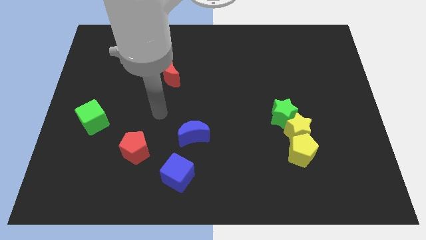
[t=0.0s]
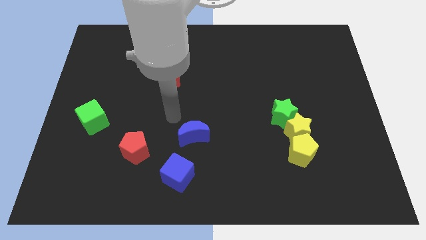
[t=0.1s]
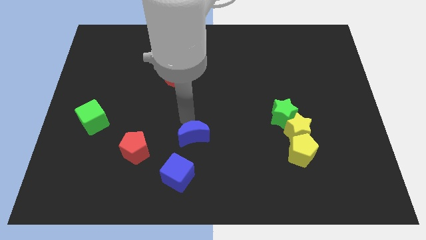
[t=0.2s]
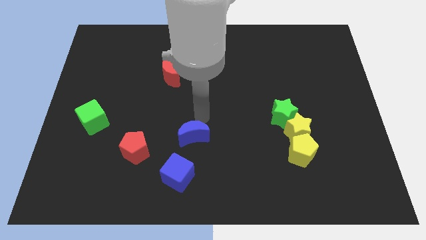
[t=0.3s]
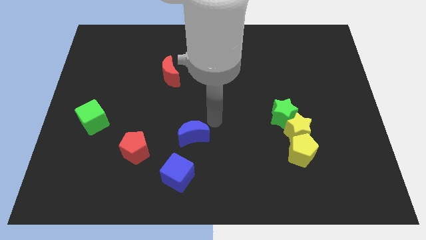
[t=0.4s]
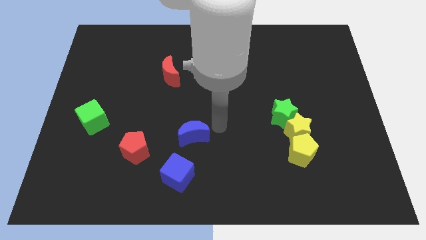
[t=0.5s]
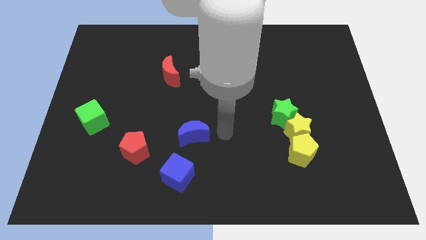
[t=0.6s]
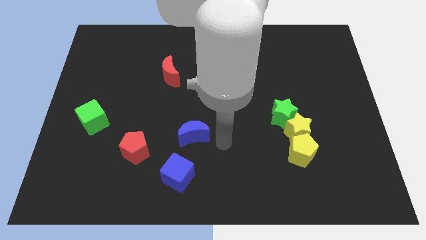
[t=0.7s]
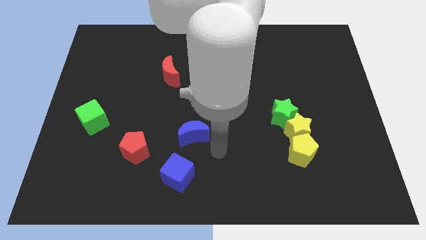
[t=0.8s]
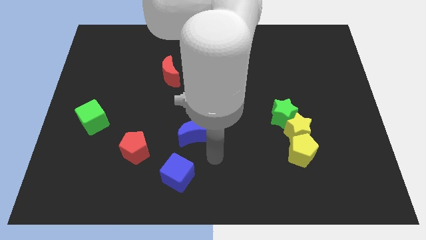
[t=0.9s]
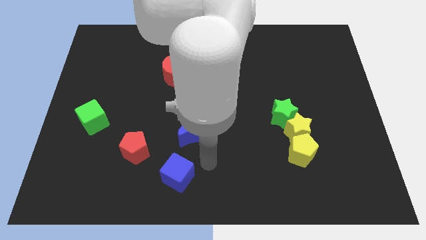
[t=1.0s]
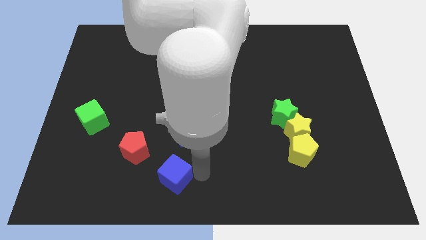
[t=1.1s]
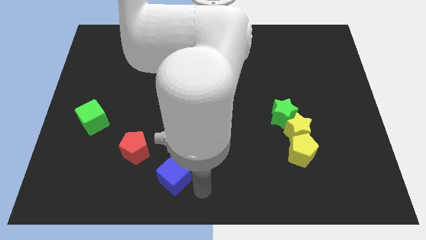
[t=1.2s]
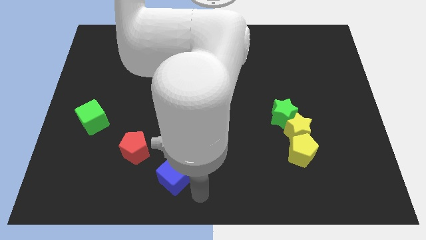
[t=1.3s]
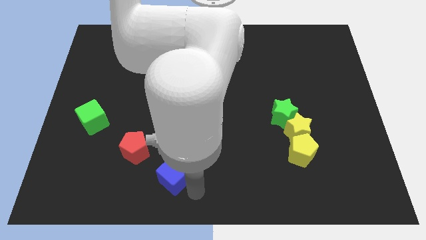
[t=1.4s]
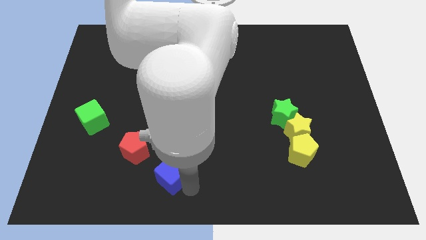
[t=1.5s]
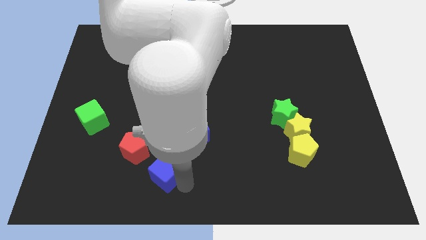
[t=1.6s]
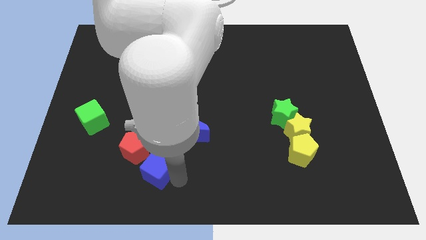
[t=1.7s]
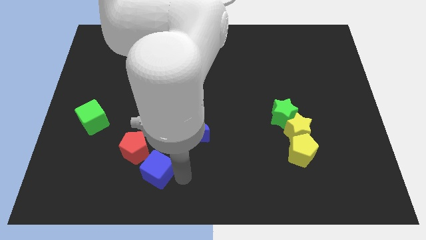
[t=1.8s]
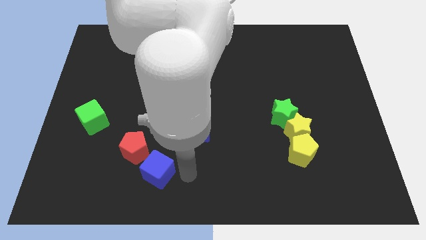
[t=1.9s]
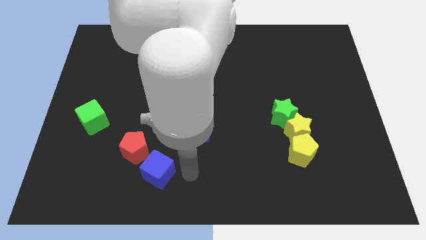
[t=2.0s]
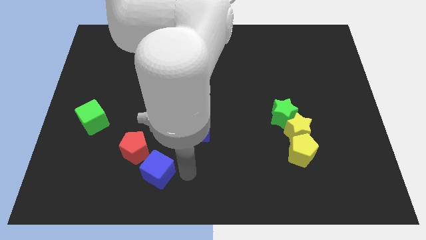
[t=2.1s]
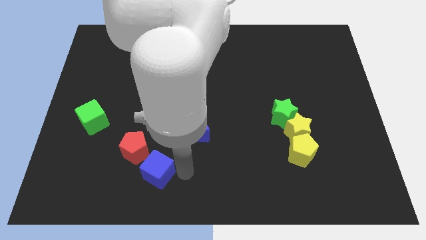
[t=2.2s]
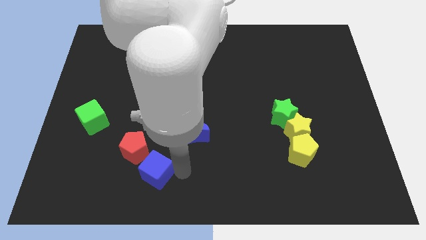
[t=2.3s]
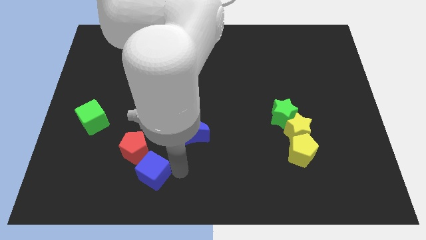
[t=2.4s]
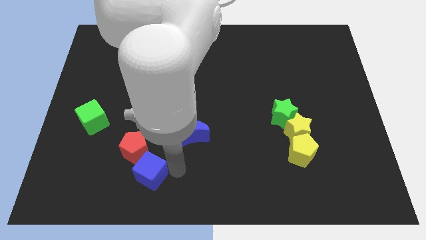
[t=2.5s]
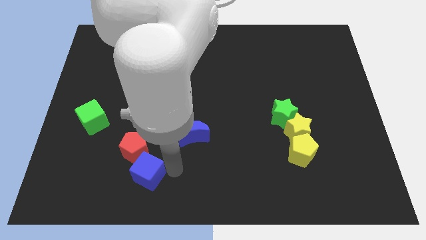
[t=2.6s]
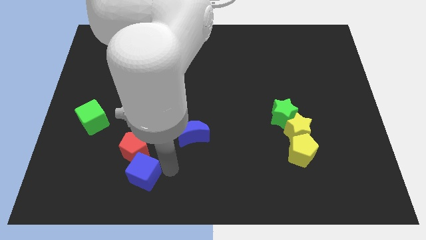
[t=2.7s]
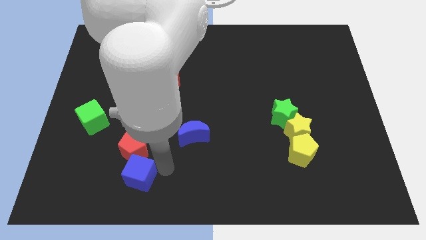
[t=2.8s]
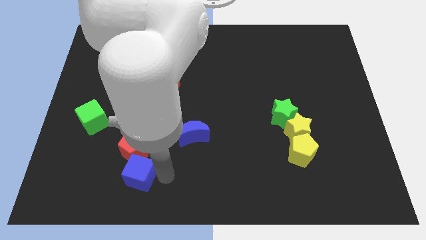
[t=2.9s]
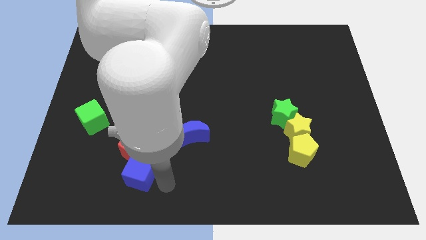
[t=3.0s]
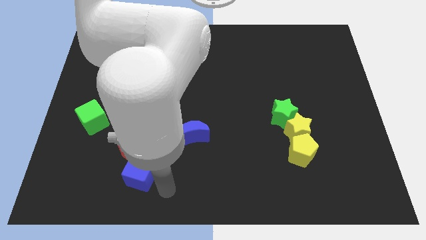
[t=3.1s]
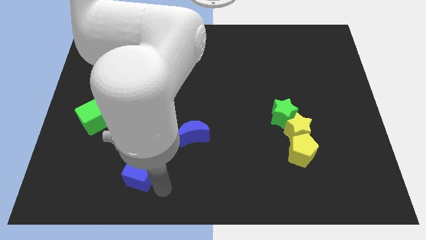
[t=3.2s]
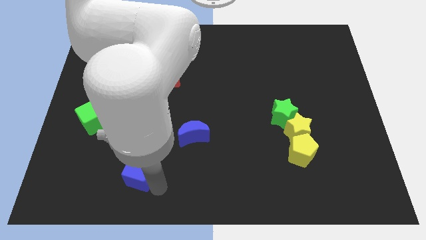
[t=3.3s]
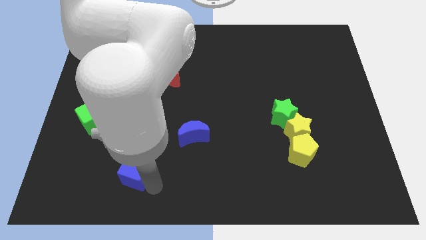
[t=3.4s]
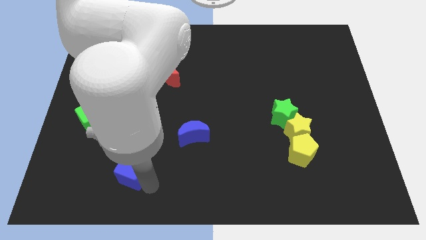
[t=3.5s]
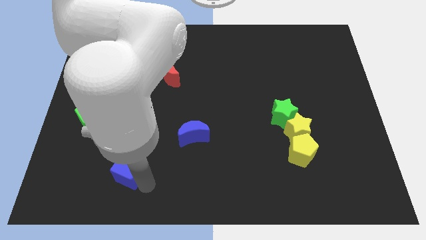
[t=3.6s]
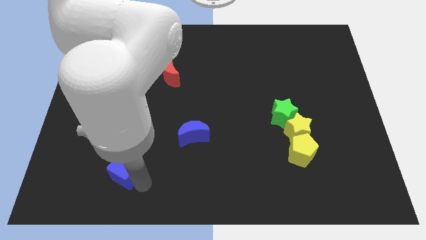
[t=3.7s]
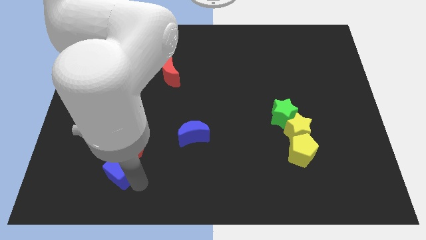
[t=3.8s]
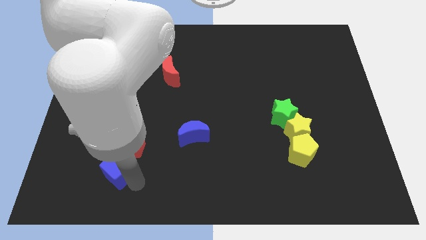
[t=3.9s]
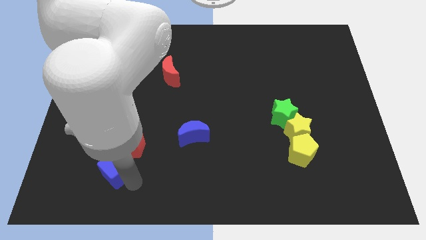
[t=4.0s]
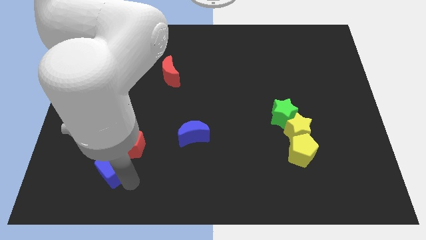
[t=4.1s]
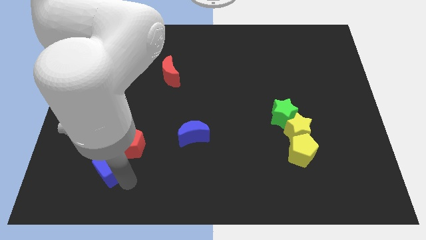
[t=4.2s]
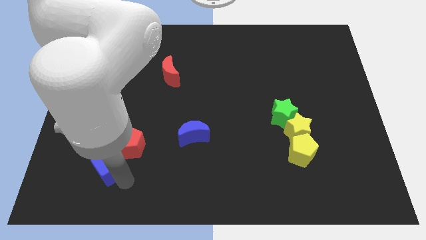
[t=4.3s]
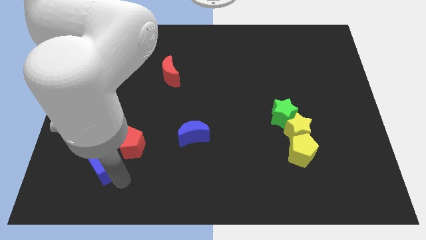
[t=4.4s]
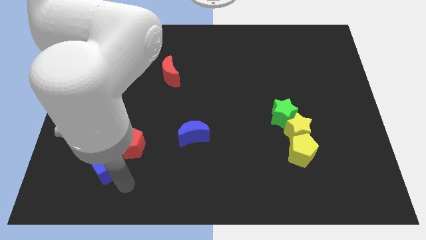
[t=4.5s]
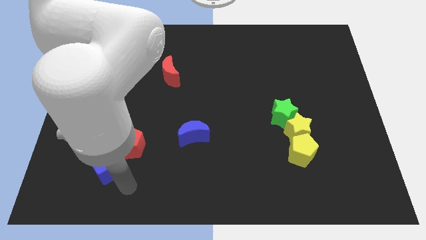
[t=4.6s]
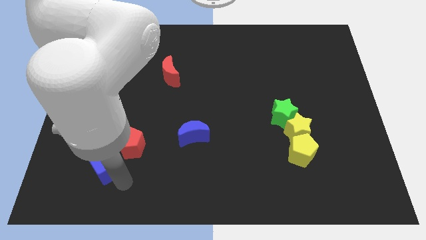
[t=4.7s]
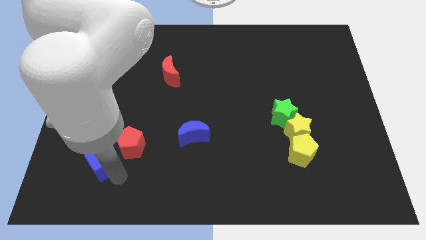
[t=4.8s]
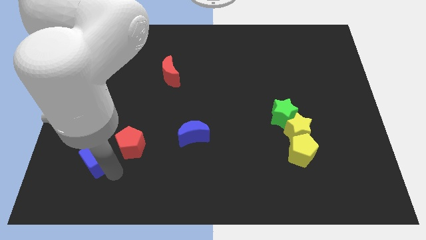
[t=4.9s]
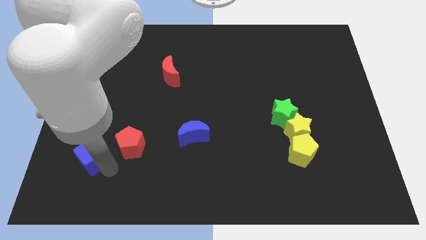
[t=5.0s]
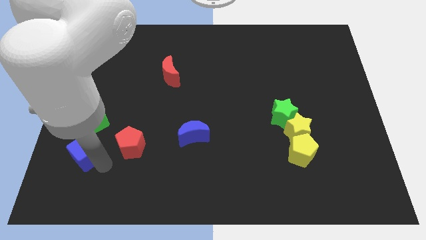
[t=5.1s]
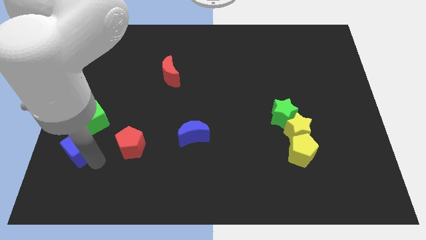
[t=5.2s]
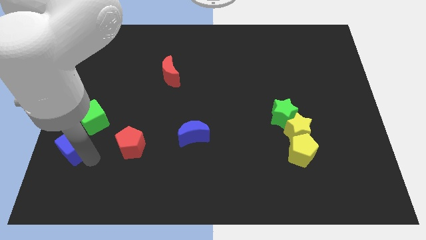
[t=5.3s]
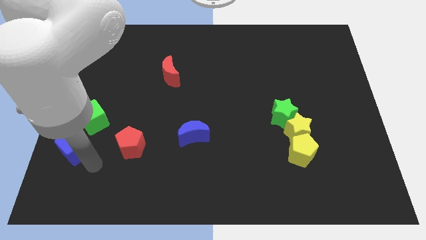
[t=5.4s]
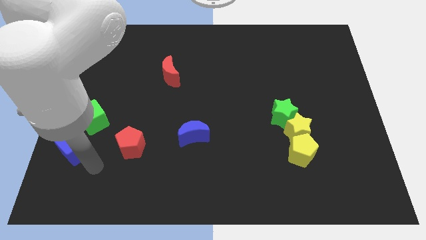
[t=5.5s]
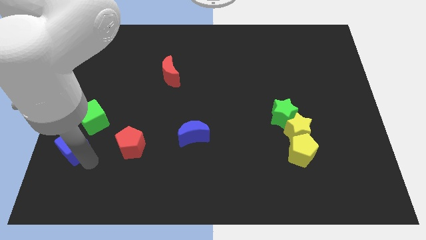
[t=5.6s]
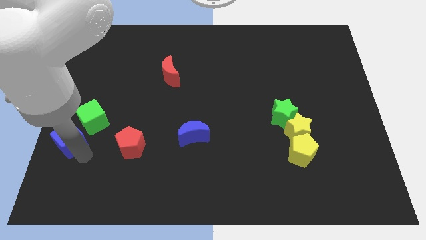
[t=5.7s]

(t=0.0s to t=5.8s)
slide the blue cube to the left side of the board
